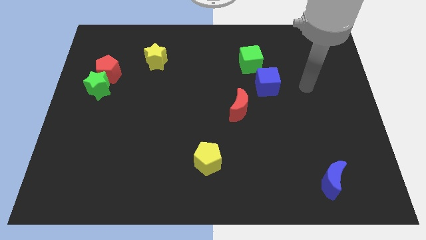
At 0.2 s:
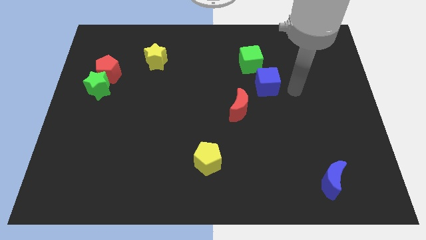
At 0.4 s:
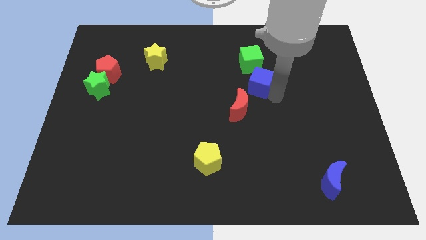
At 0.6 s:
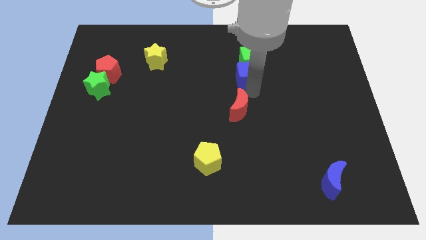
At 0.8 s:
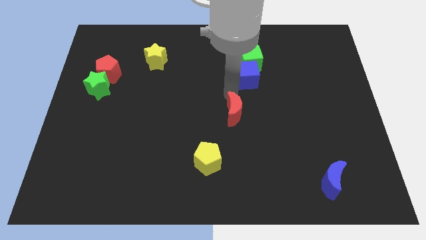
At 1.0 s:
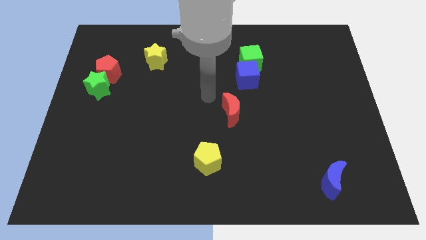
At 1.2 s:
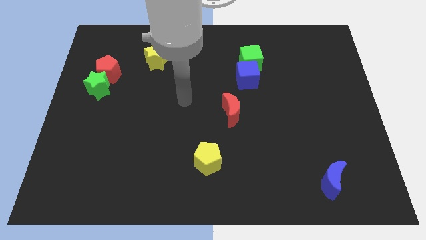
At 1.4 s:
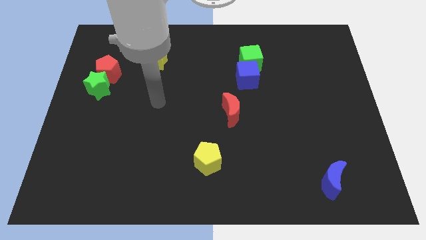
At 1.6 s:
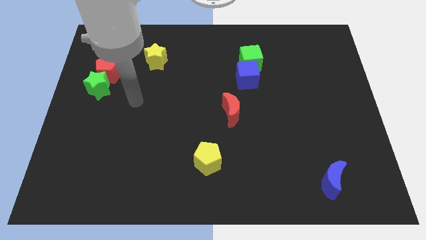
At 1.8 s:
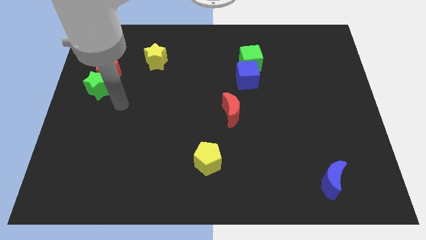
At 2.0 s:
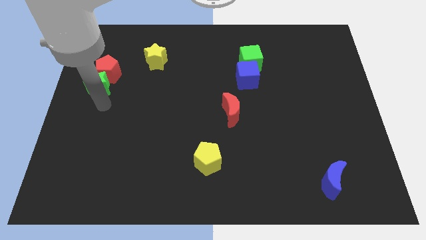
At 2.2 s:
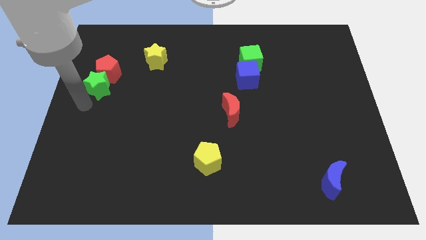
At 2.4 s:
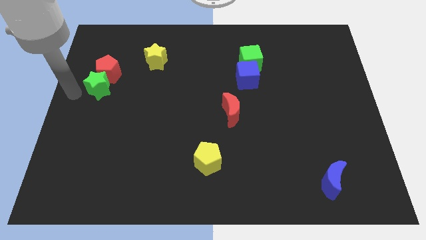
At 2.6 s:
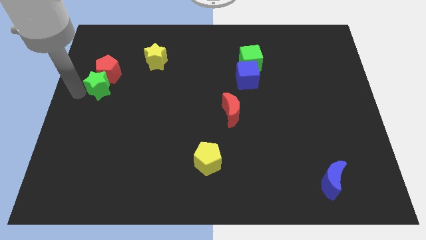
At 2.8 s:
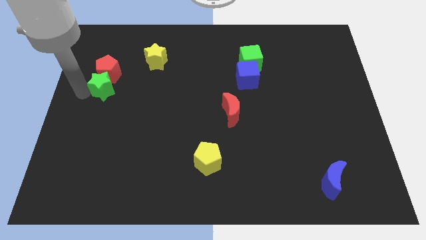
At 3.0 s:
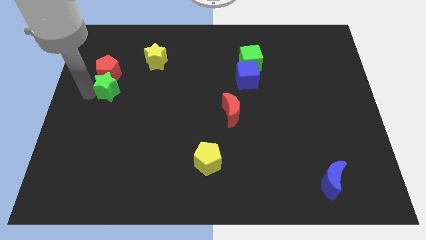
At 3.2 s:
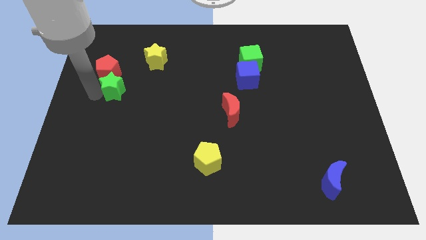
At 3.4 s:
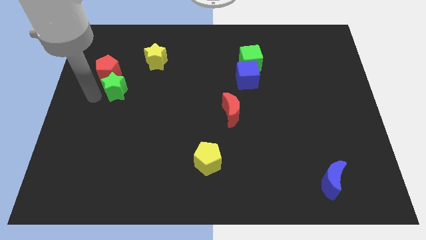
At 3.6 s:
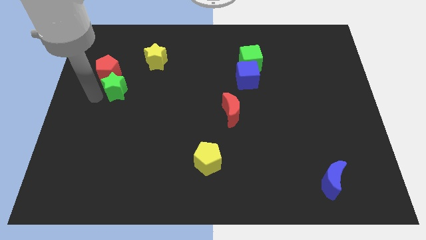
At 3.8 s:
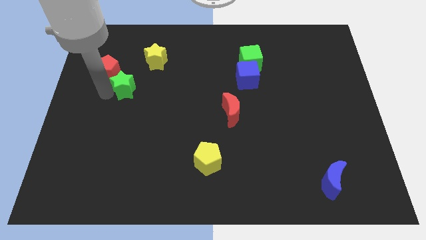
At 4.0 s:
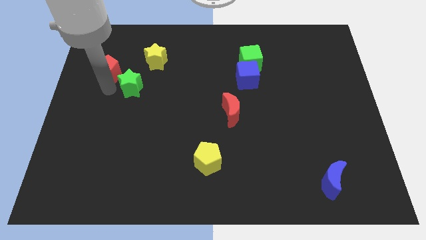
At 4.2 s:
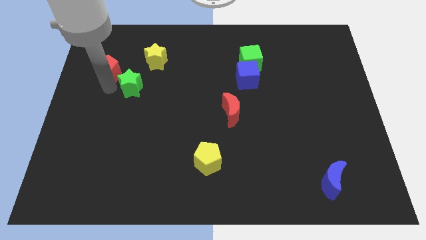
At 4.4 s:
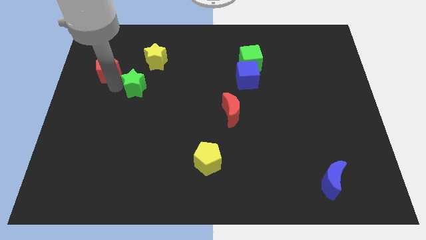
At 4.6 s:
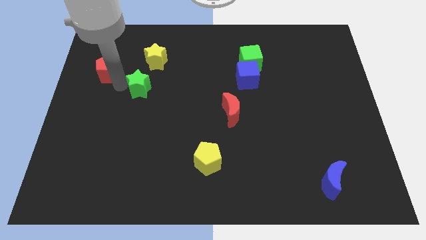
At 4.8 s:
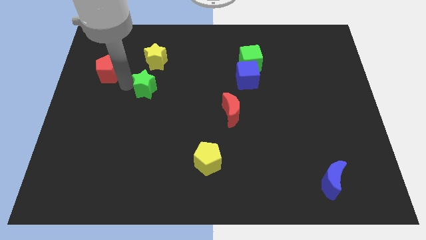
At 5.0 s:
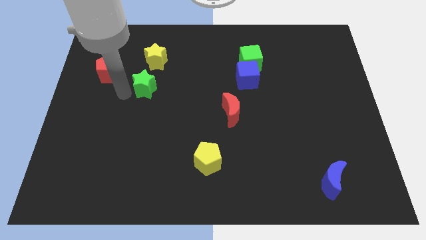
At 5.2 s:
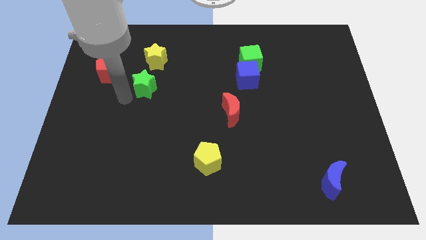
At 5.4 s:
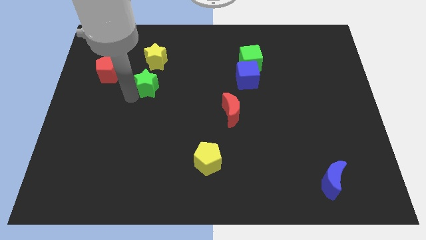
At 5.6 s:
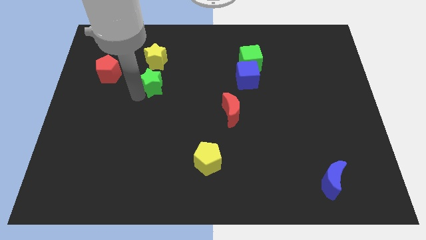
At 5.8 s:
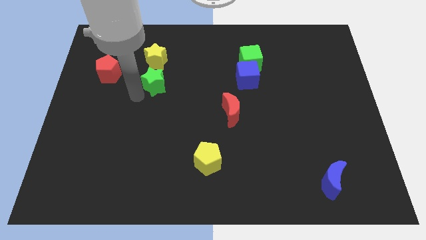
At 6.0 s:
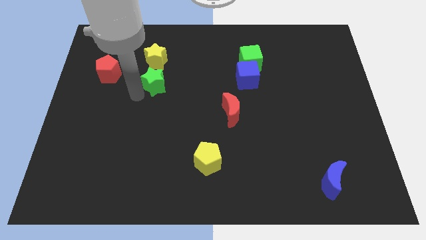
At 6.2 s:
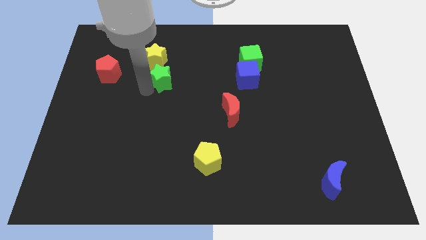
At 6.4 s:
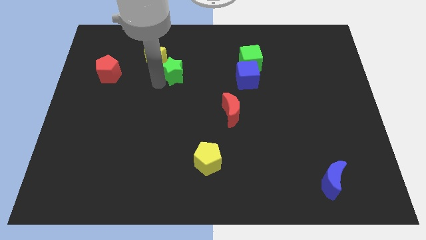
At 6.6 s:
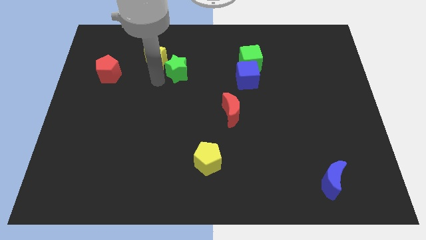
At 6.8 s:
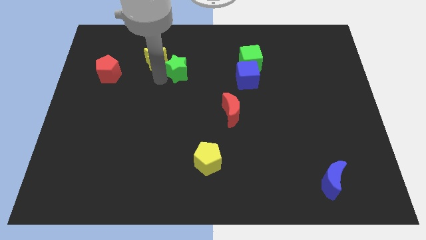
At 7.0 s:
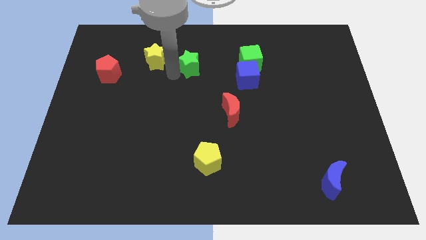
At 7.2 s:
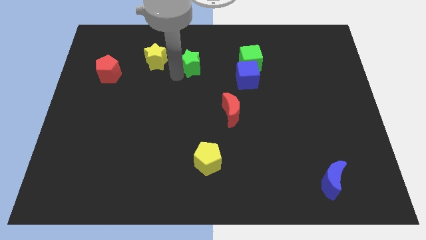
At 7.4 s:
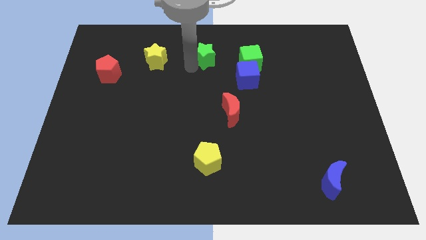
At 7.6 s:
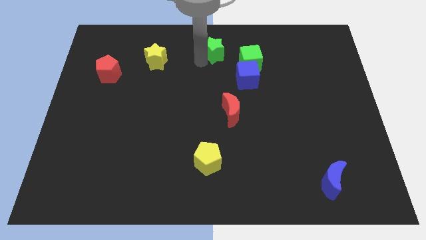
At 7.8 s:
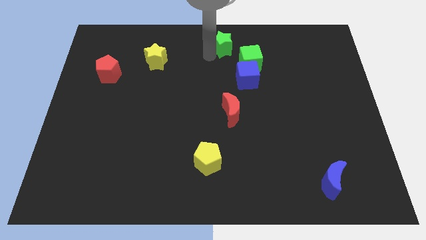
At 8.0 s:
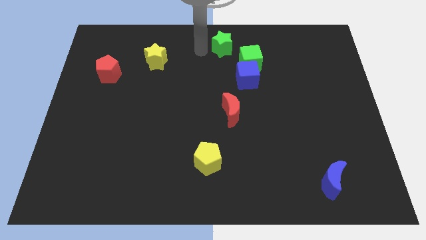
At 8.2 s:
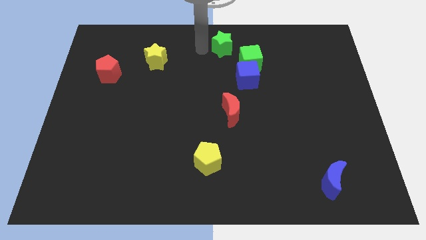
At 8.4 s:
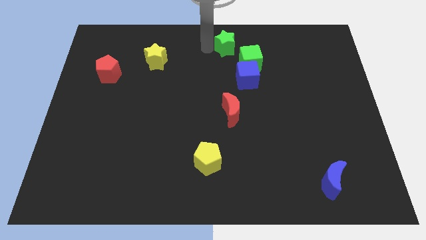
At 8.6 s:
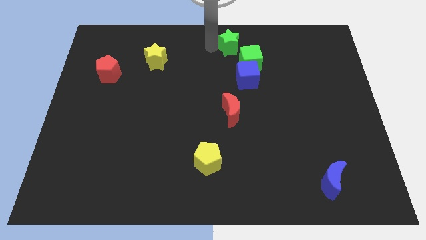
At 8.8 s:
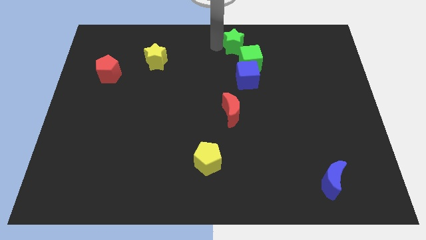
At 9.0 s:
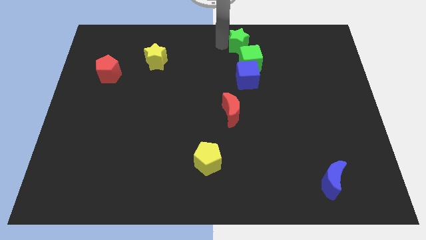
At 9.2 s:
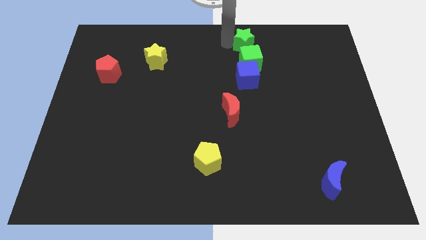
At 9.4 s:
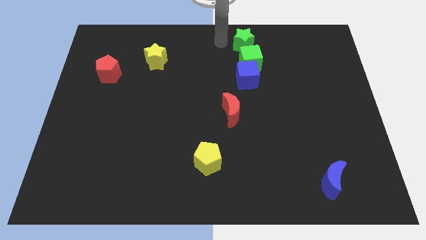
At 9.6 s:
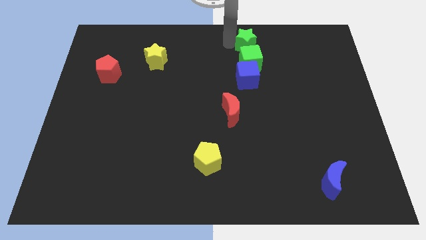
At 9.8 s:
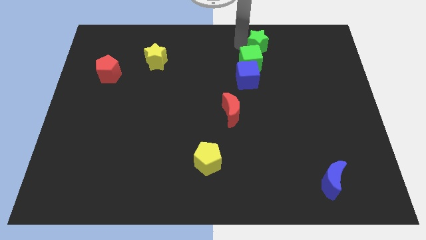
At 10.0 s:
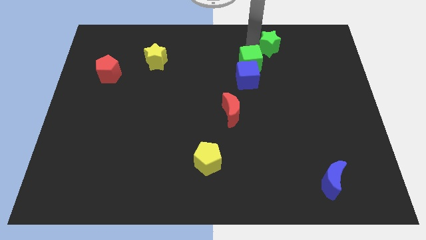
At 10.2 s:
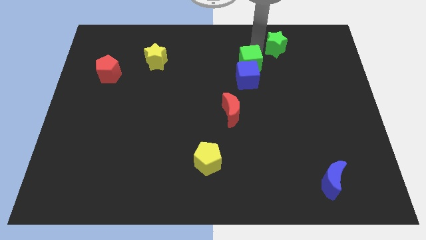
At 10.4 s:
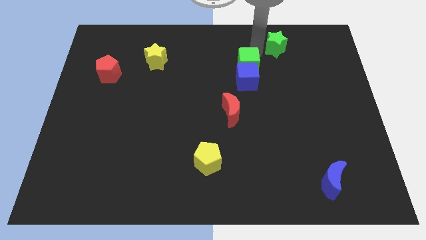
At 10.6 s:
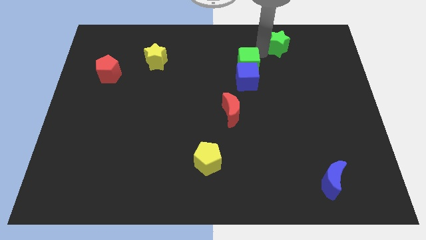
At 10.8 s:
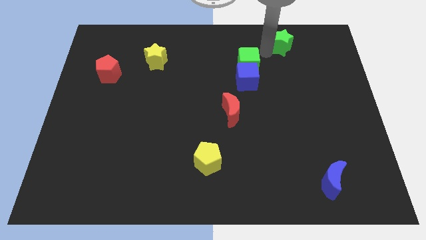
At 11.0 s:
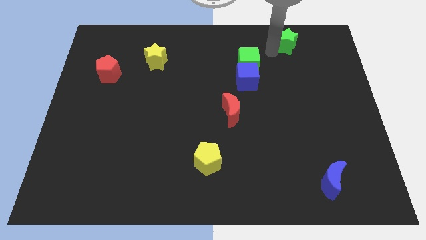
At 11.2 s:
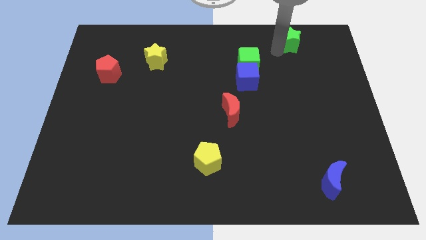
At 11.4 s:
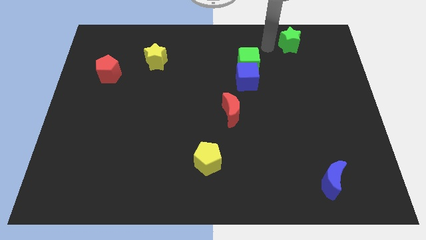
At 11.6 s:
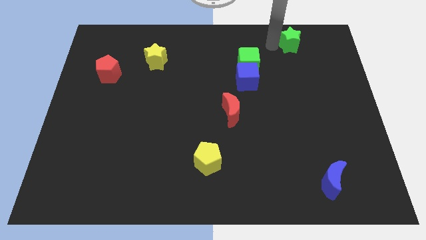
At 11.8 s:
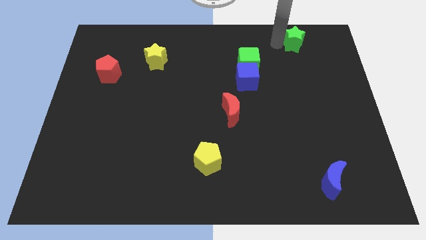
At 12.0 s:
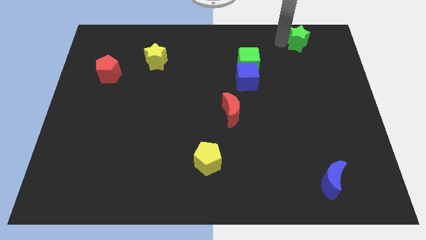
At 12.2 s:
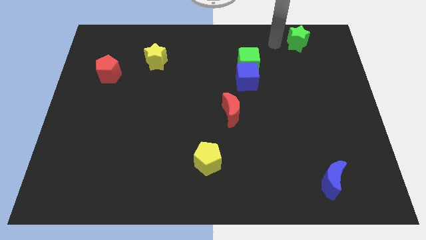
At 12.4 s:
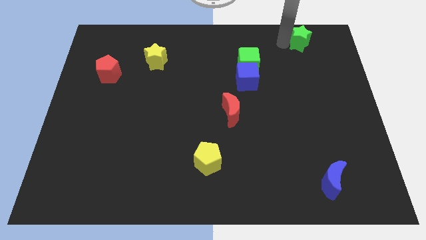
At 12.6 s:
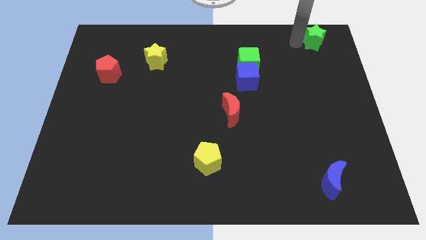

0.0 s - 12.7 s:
move the green star to the top right of the board
